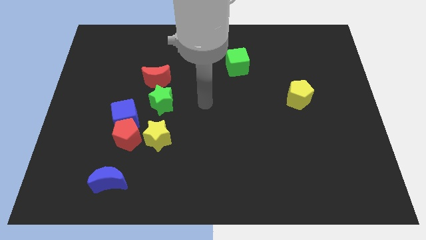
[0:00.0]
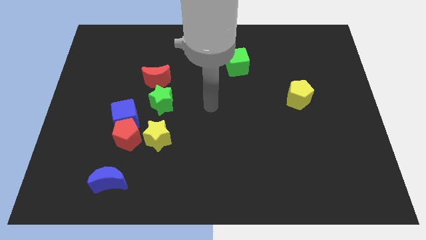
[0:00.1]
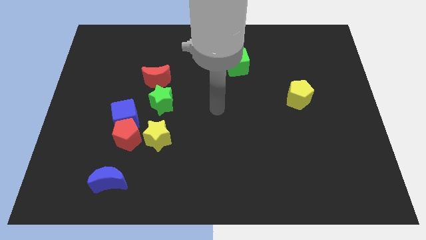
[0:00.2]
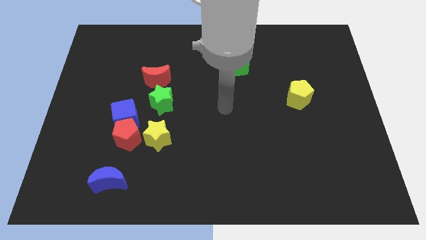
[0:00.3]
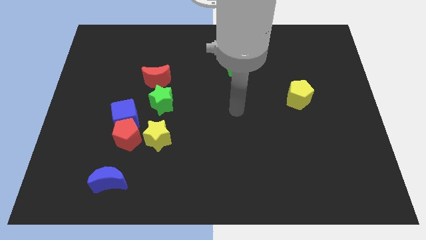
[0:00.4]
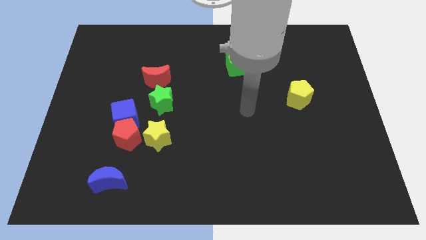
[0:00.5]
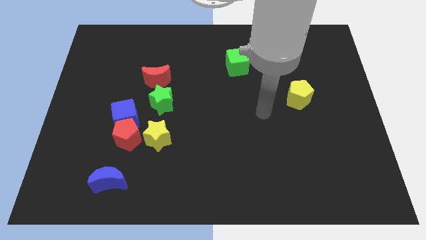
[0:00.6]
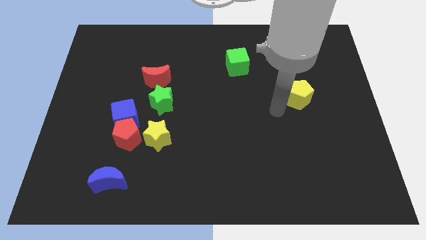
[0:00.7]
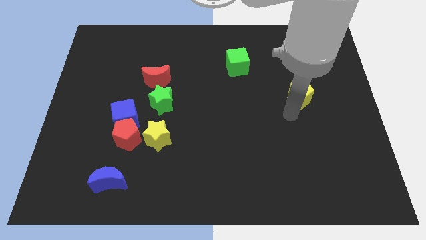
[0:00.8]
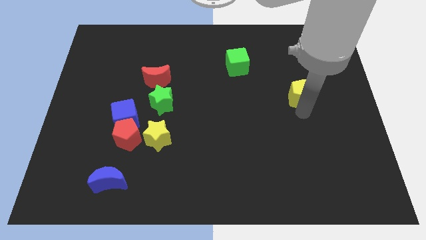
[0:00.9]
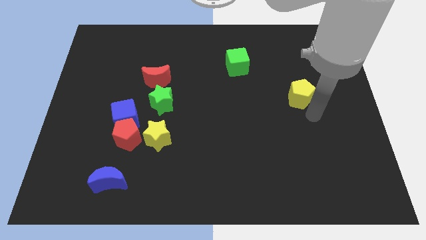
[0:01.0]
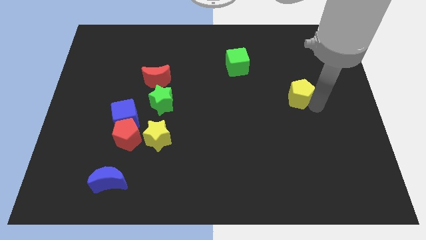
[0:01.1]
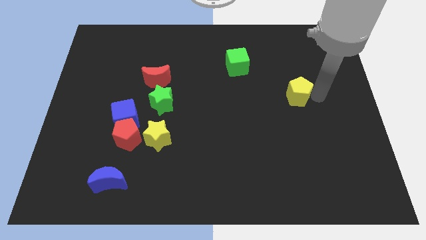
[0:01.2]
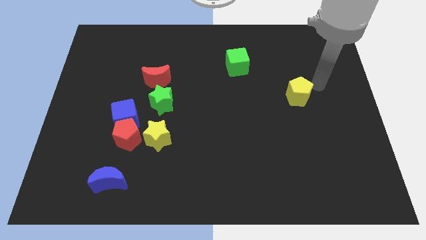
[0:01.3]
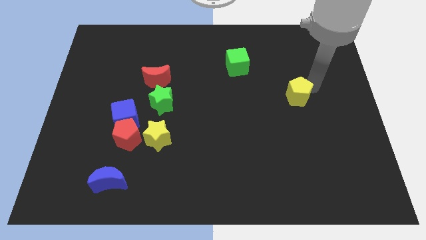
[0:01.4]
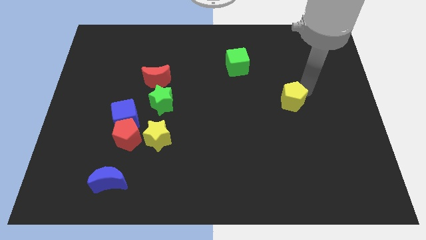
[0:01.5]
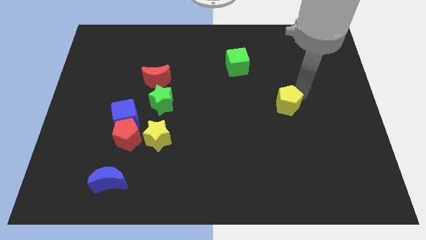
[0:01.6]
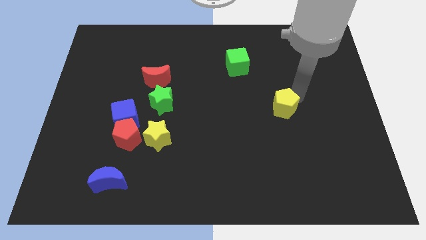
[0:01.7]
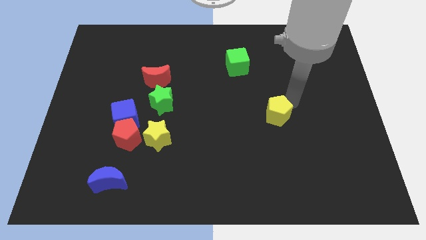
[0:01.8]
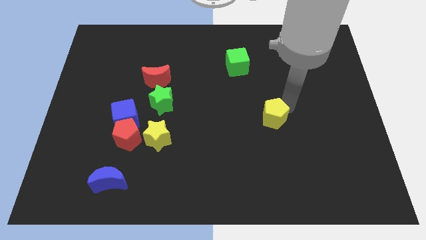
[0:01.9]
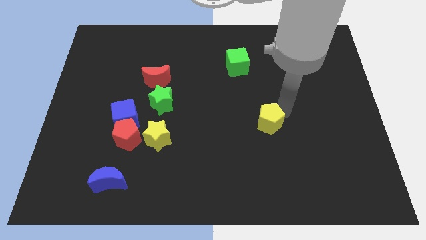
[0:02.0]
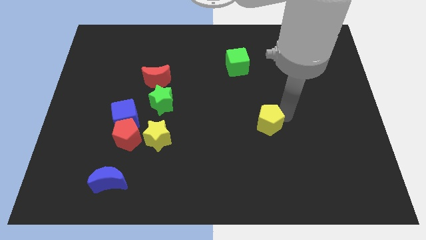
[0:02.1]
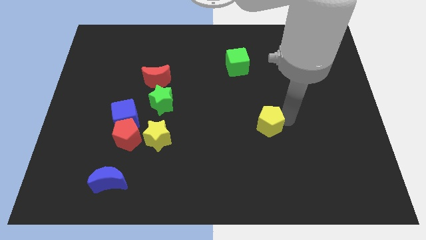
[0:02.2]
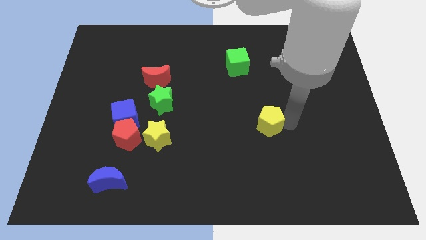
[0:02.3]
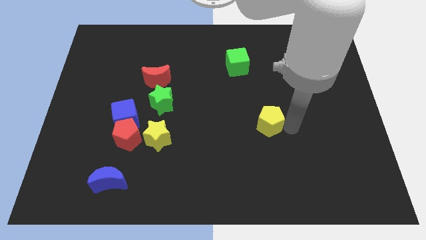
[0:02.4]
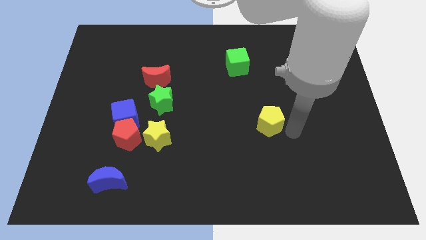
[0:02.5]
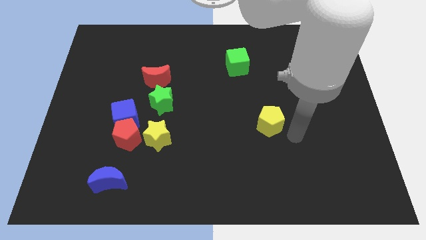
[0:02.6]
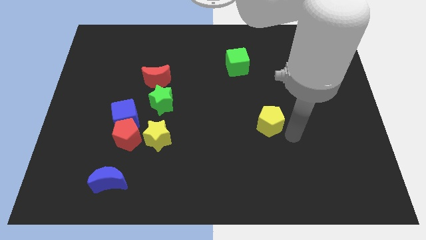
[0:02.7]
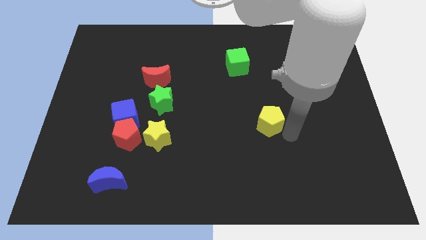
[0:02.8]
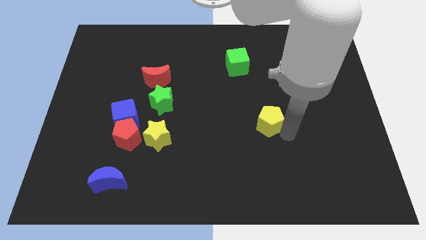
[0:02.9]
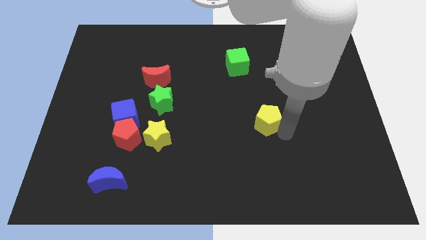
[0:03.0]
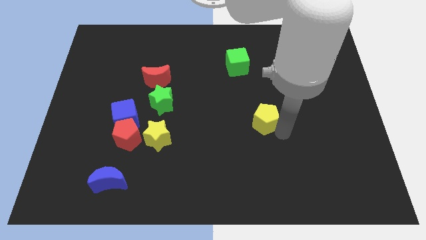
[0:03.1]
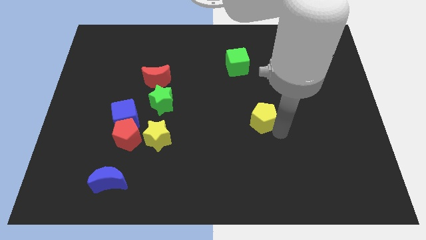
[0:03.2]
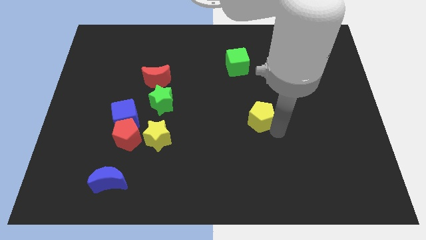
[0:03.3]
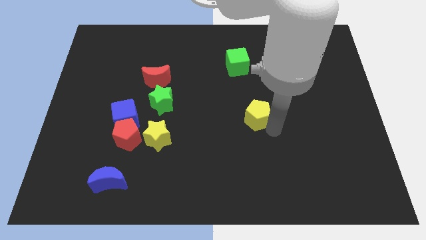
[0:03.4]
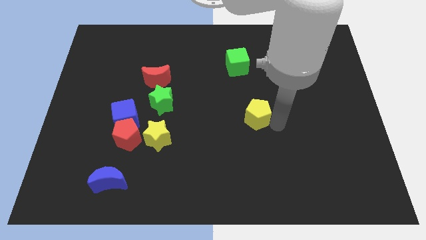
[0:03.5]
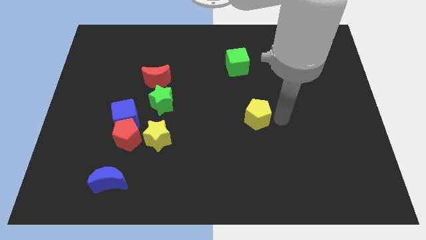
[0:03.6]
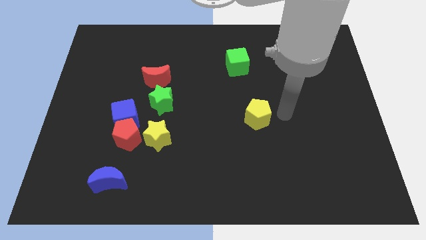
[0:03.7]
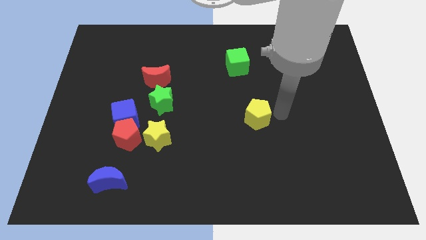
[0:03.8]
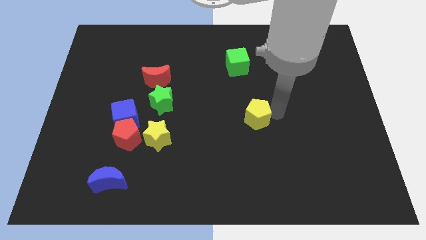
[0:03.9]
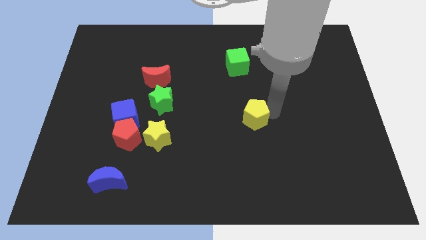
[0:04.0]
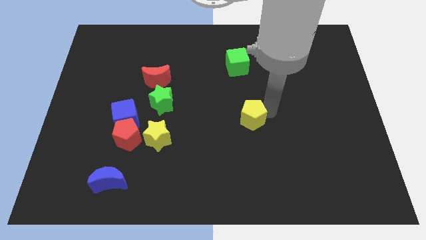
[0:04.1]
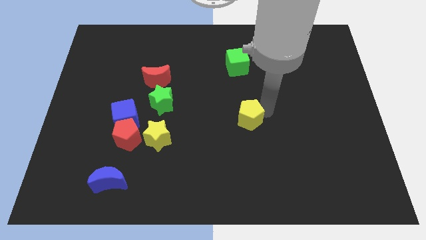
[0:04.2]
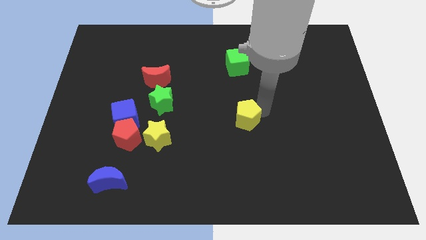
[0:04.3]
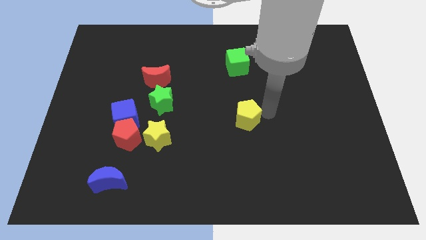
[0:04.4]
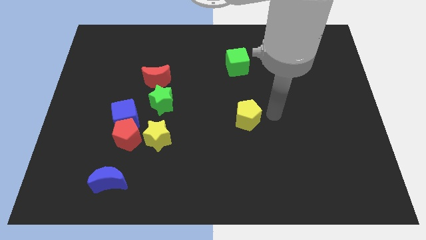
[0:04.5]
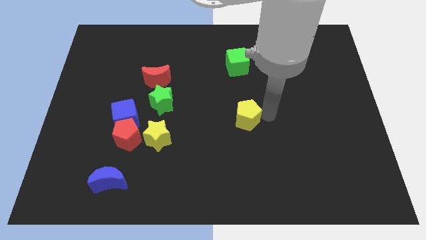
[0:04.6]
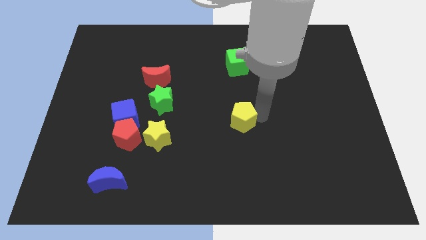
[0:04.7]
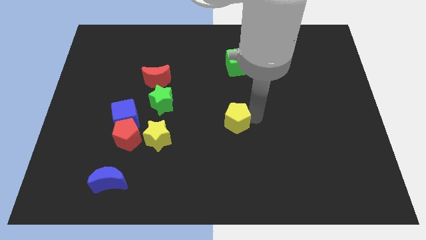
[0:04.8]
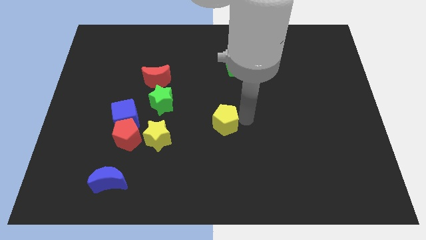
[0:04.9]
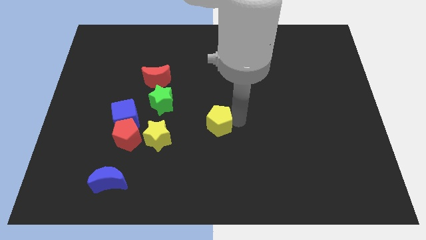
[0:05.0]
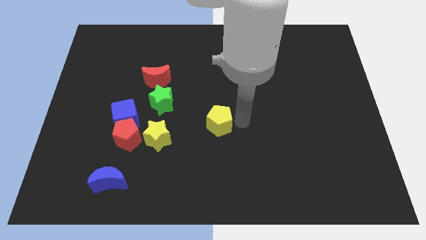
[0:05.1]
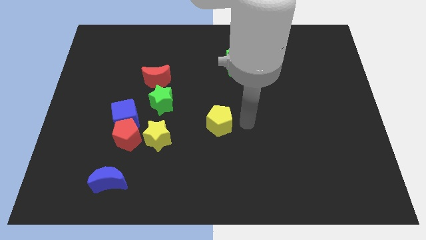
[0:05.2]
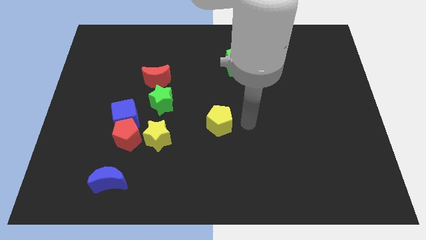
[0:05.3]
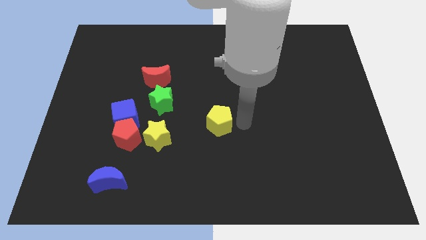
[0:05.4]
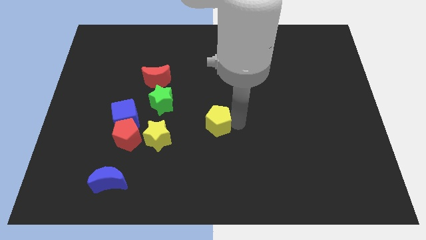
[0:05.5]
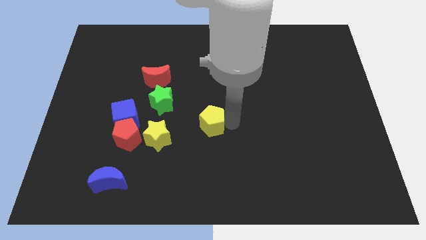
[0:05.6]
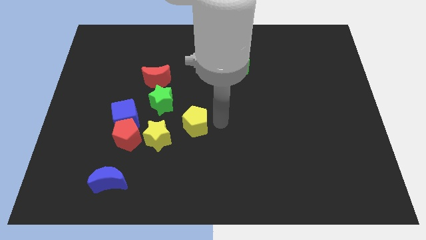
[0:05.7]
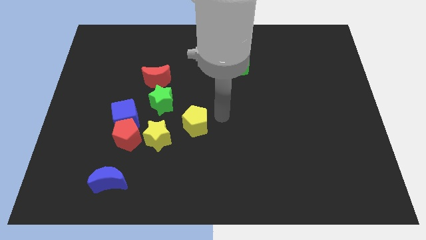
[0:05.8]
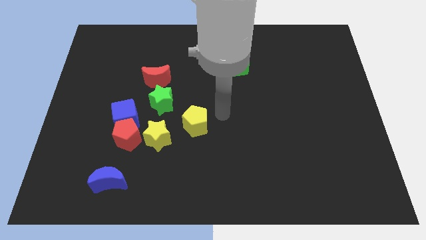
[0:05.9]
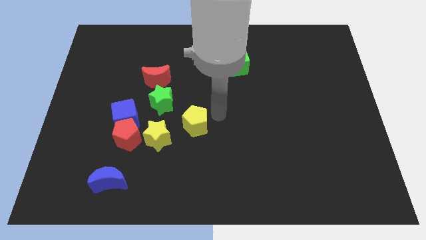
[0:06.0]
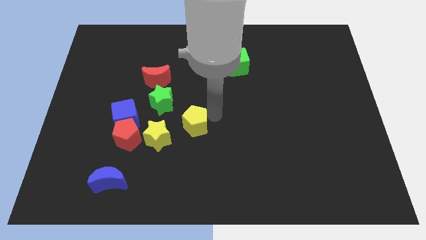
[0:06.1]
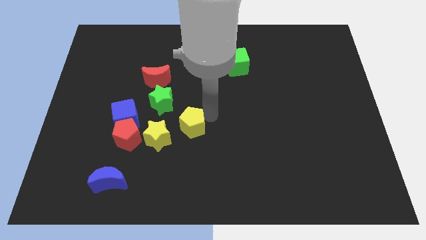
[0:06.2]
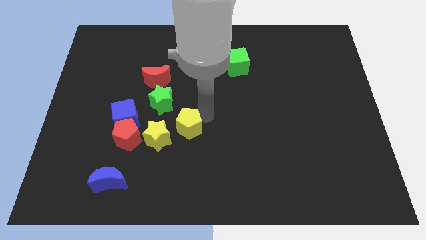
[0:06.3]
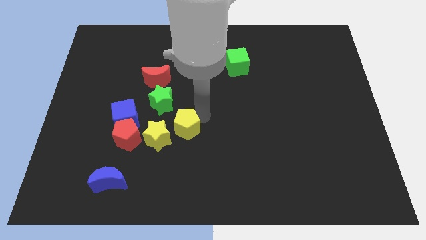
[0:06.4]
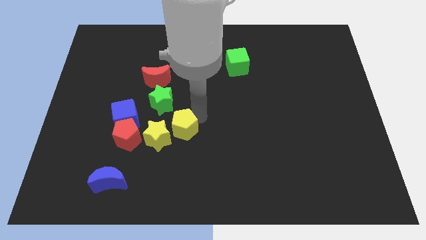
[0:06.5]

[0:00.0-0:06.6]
move the yellow pentagon next to the yellow star

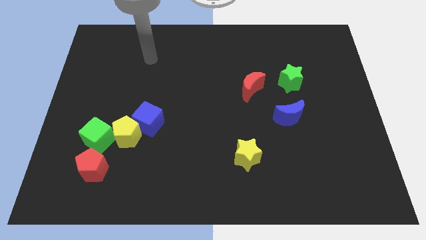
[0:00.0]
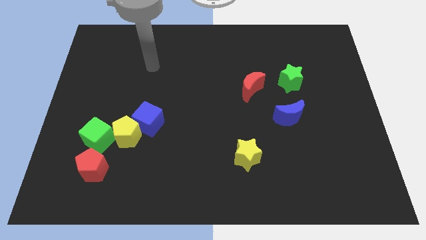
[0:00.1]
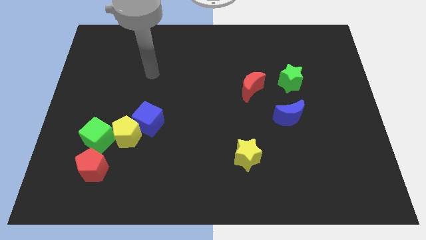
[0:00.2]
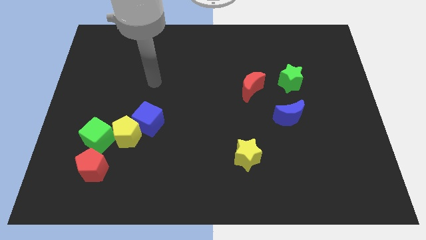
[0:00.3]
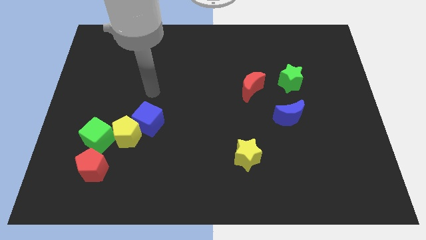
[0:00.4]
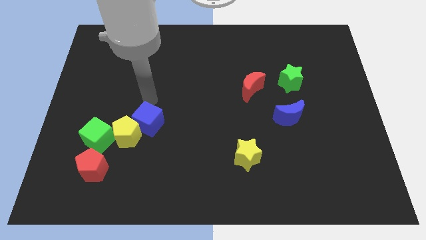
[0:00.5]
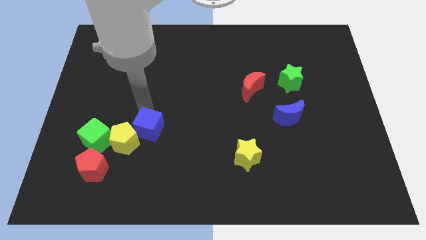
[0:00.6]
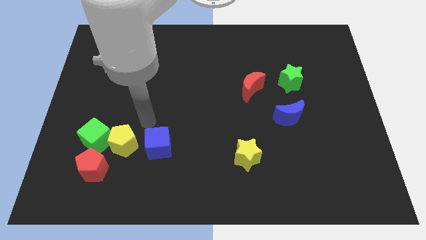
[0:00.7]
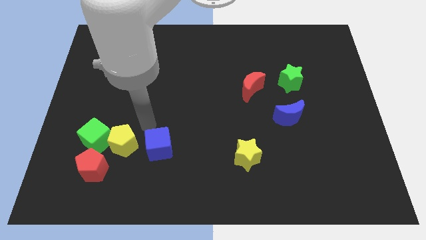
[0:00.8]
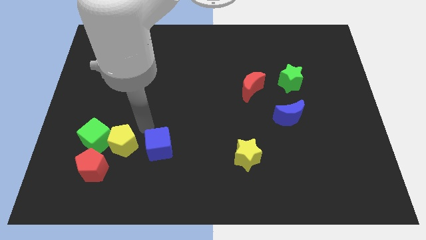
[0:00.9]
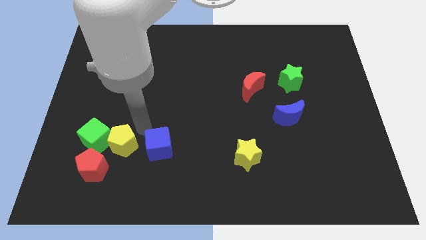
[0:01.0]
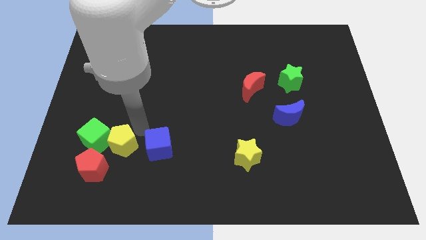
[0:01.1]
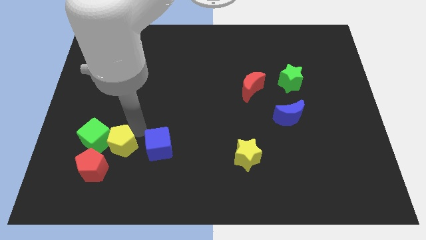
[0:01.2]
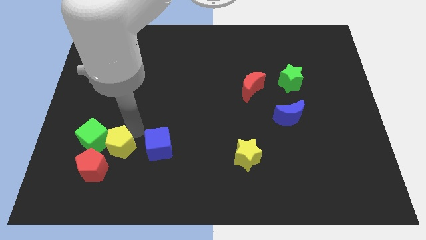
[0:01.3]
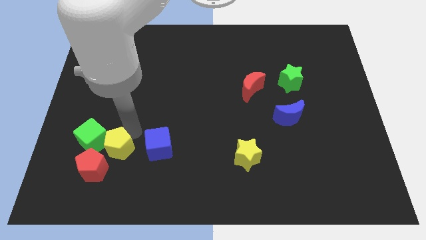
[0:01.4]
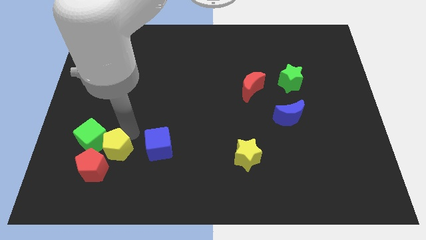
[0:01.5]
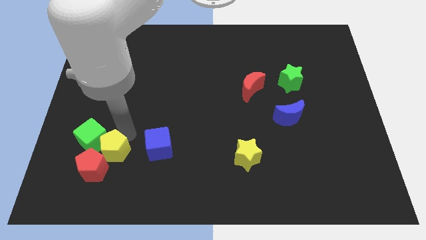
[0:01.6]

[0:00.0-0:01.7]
put the yellow pentagon close to the red pentagon
